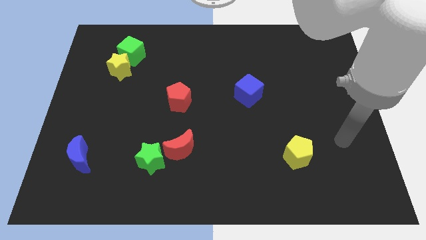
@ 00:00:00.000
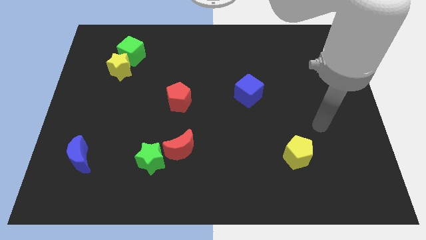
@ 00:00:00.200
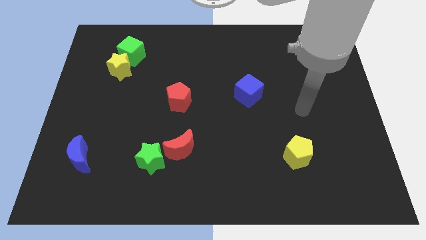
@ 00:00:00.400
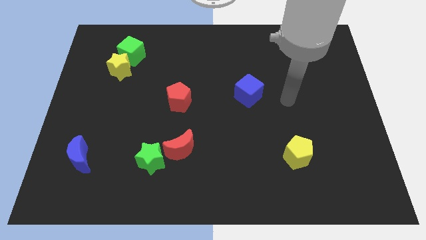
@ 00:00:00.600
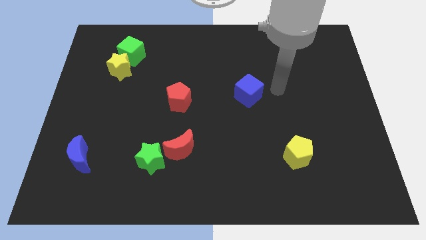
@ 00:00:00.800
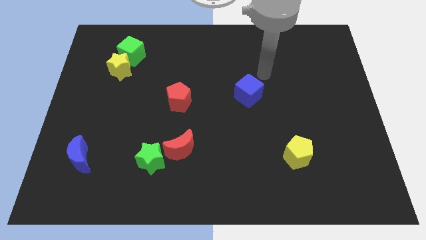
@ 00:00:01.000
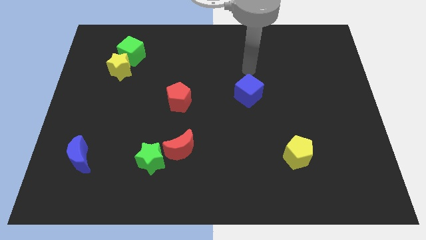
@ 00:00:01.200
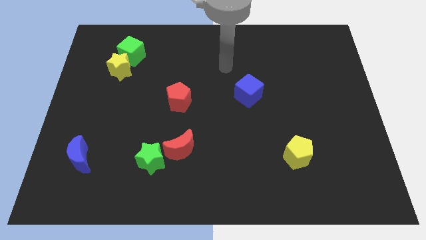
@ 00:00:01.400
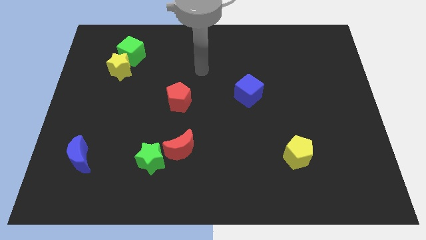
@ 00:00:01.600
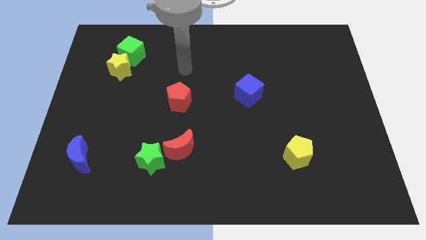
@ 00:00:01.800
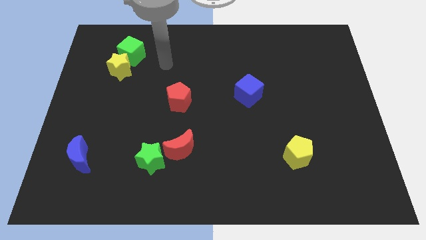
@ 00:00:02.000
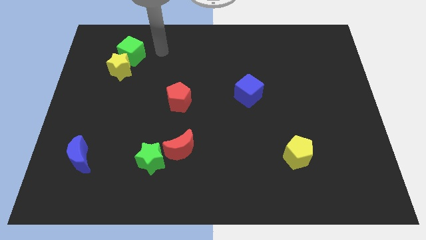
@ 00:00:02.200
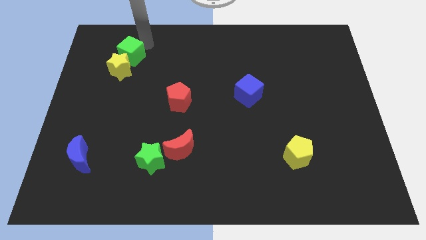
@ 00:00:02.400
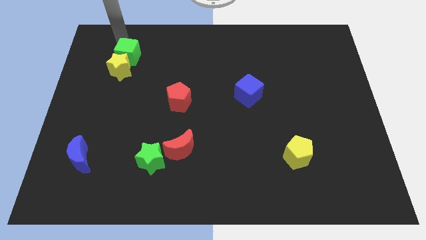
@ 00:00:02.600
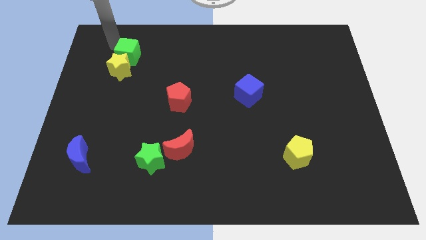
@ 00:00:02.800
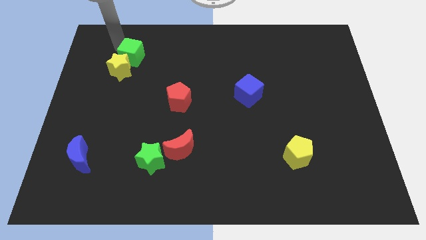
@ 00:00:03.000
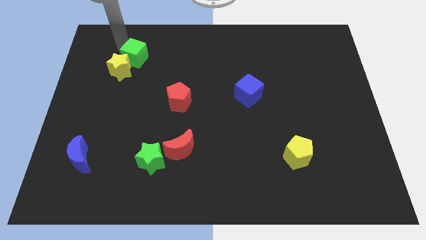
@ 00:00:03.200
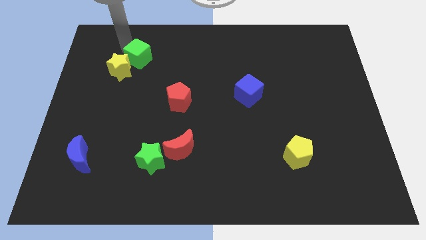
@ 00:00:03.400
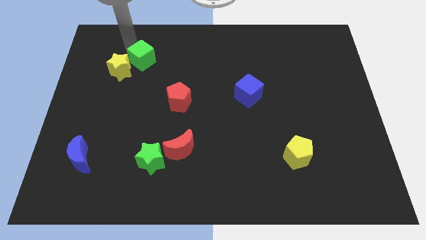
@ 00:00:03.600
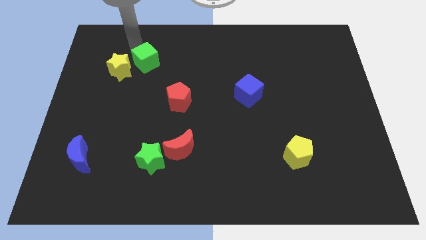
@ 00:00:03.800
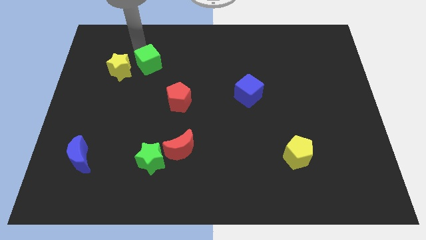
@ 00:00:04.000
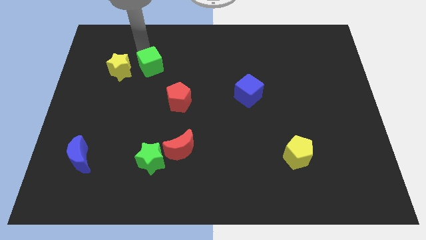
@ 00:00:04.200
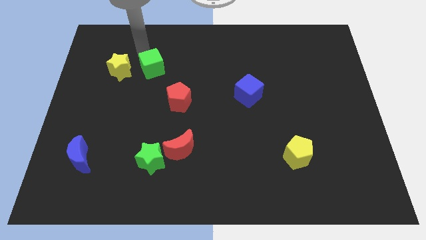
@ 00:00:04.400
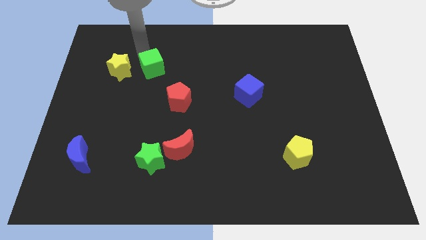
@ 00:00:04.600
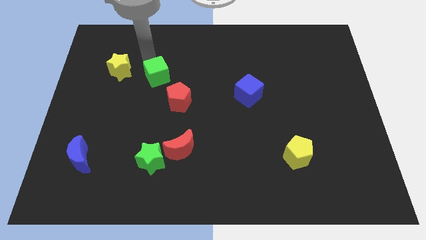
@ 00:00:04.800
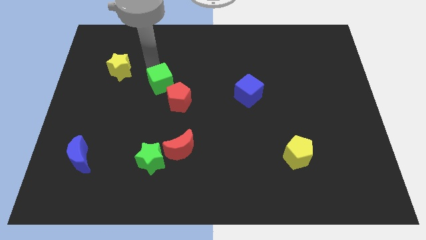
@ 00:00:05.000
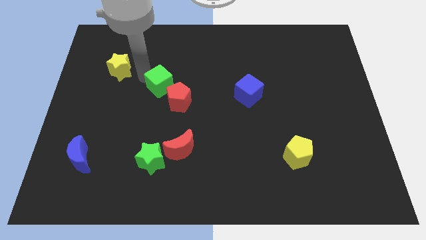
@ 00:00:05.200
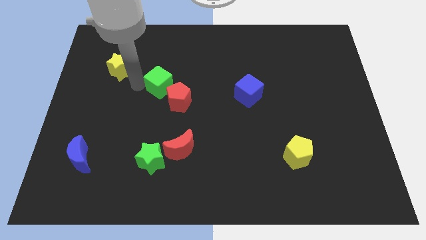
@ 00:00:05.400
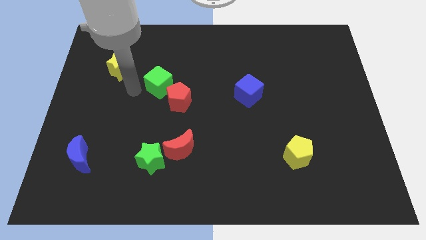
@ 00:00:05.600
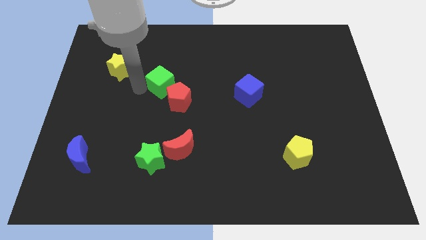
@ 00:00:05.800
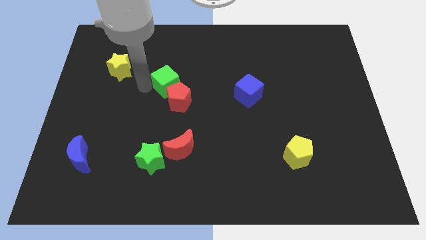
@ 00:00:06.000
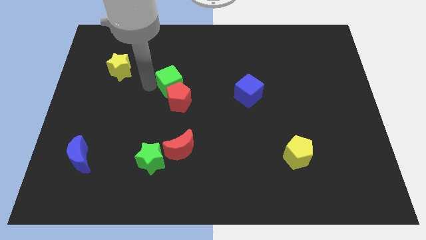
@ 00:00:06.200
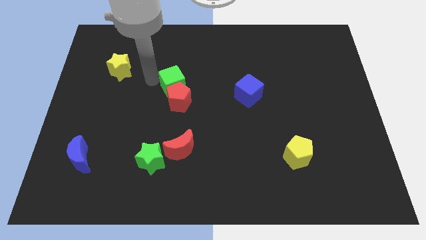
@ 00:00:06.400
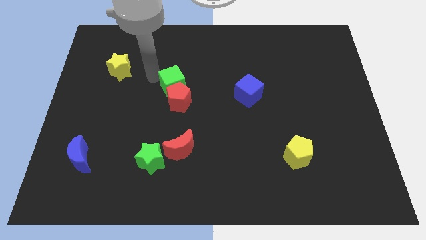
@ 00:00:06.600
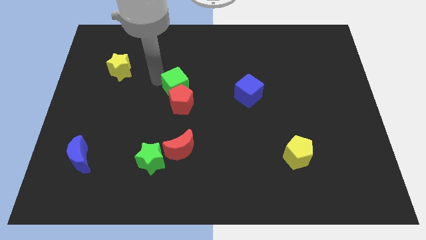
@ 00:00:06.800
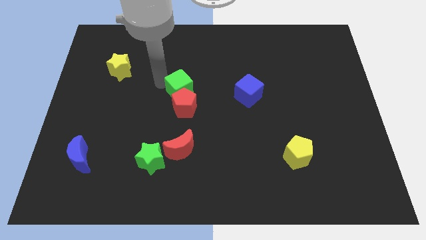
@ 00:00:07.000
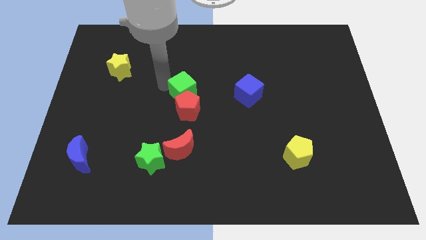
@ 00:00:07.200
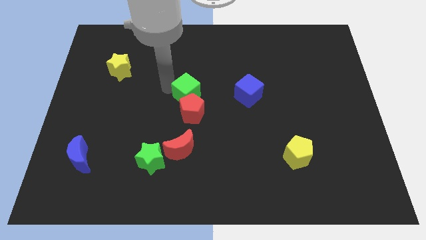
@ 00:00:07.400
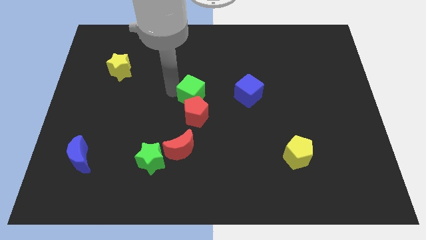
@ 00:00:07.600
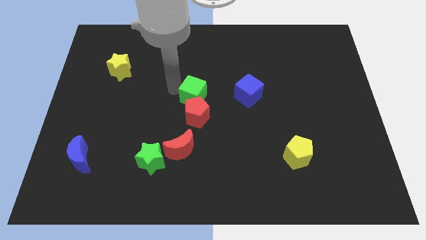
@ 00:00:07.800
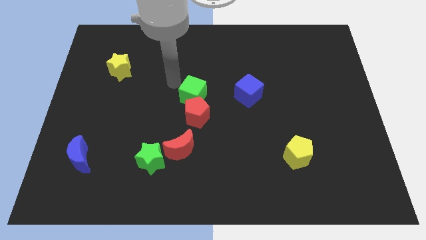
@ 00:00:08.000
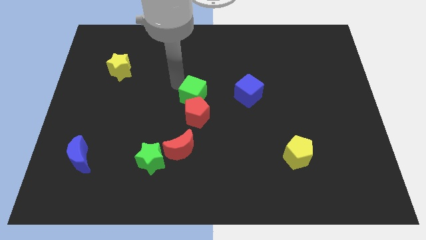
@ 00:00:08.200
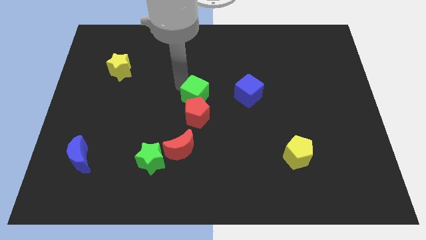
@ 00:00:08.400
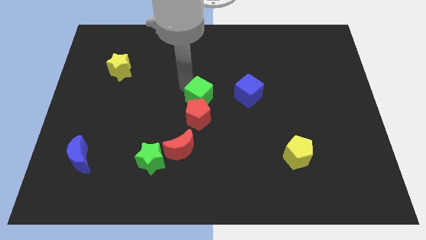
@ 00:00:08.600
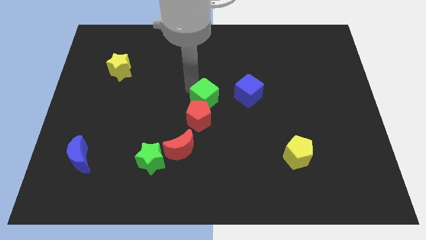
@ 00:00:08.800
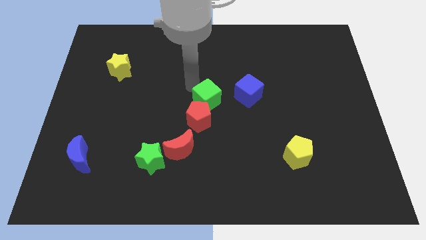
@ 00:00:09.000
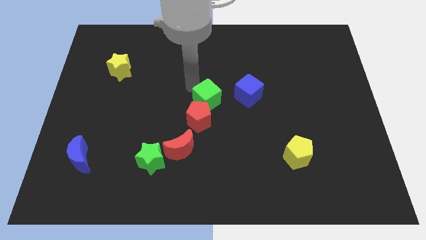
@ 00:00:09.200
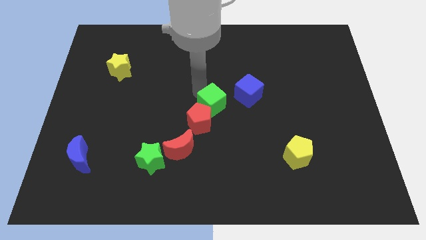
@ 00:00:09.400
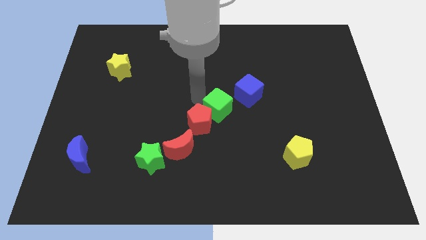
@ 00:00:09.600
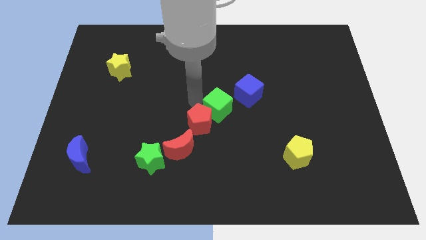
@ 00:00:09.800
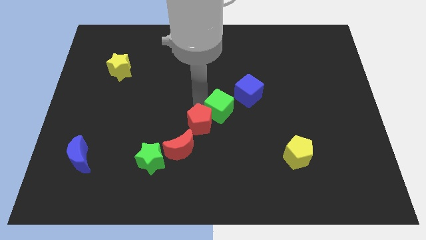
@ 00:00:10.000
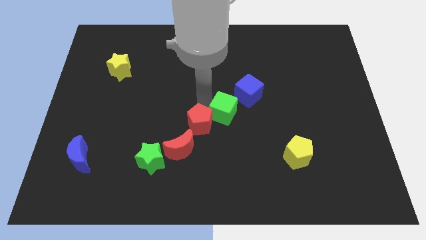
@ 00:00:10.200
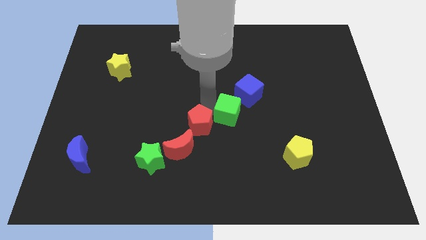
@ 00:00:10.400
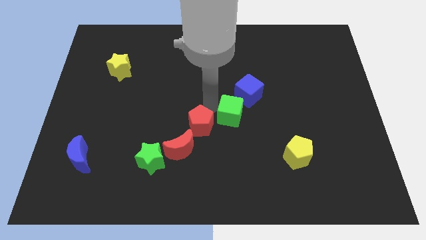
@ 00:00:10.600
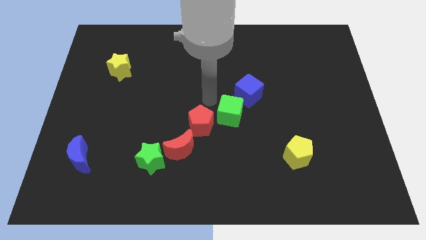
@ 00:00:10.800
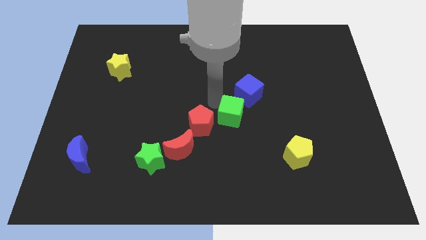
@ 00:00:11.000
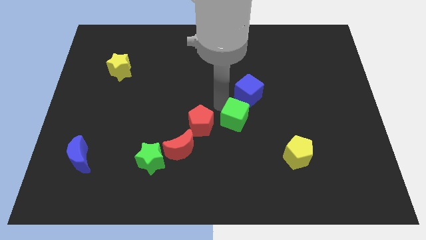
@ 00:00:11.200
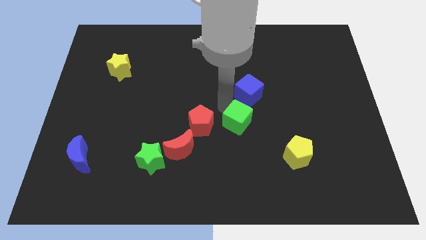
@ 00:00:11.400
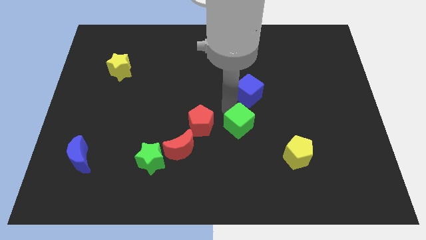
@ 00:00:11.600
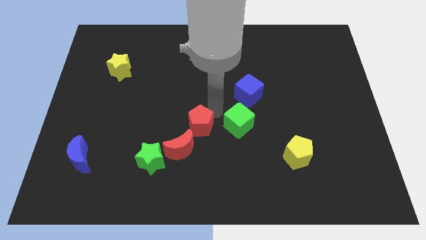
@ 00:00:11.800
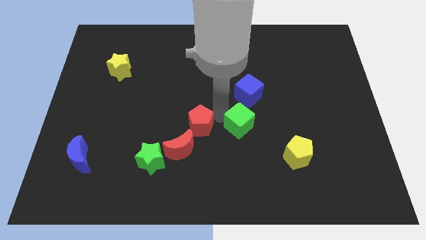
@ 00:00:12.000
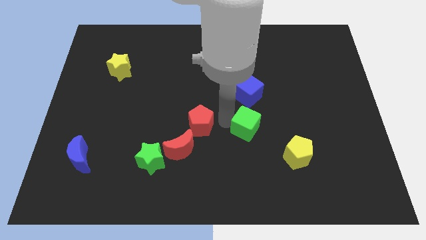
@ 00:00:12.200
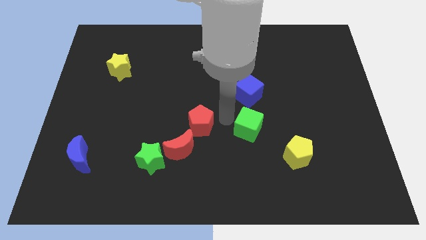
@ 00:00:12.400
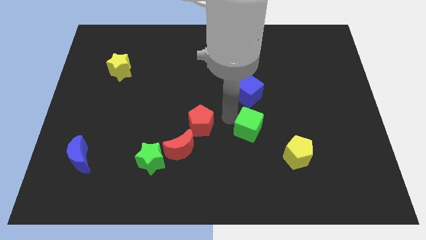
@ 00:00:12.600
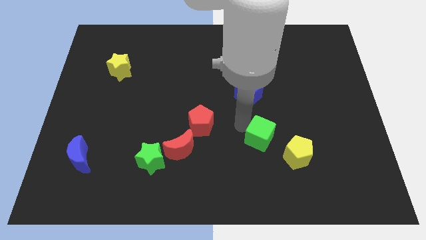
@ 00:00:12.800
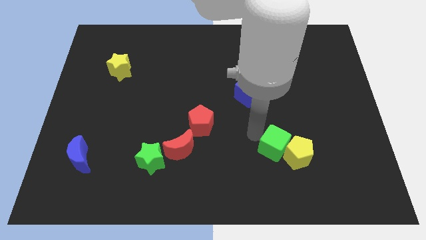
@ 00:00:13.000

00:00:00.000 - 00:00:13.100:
put the green cube close to the yellow pentagon
